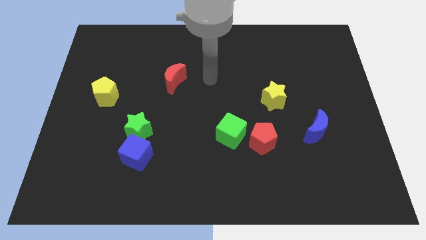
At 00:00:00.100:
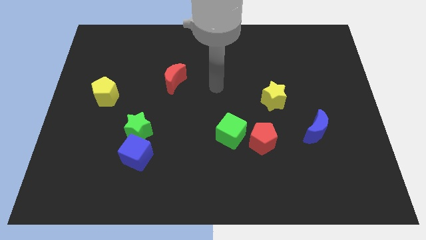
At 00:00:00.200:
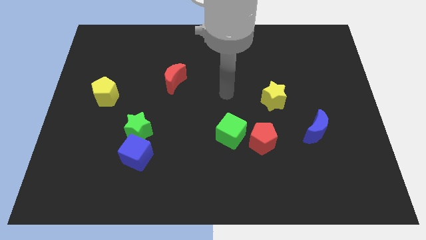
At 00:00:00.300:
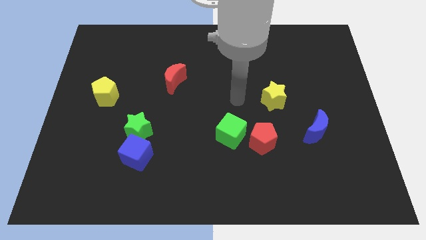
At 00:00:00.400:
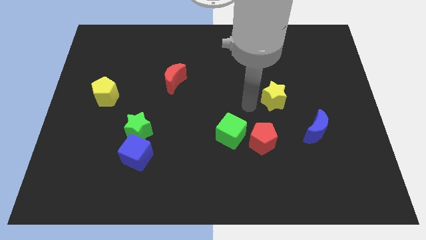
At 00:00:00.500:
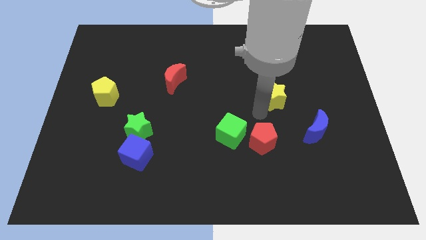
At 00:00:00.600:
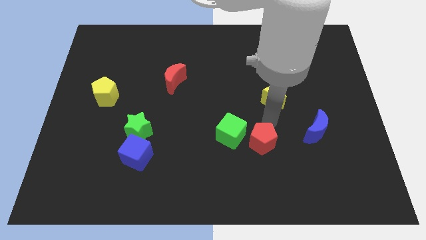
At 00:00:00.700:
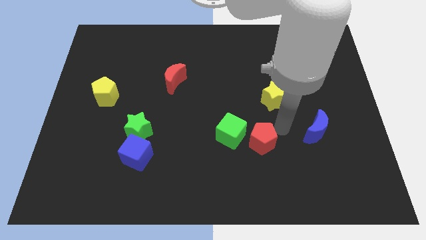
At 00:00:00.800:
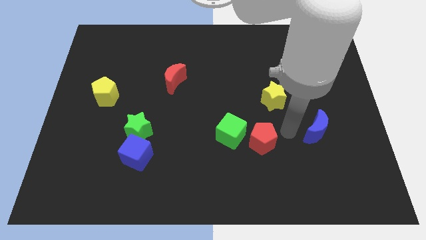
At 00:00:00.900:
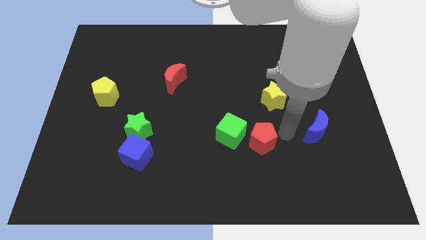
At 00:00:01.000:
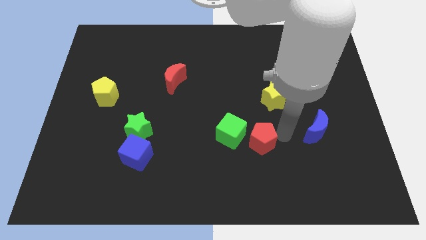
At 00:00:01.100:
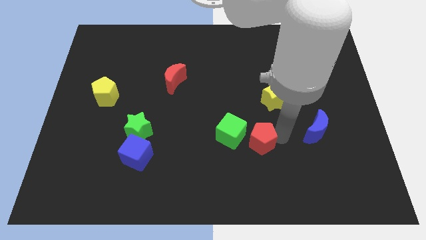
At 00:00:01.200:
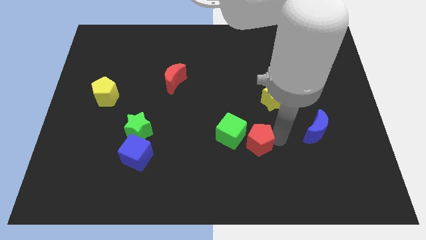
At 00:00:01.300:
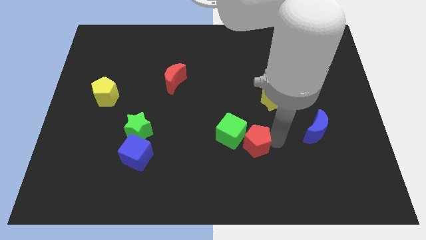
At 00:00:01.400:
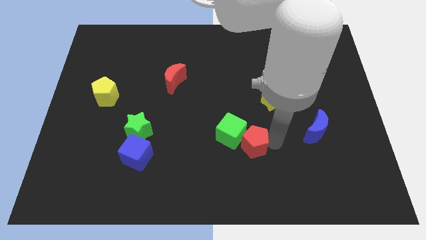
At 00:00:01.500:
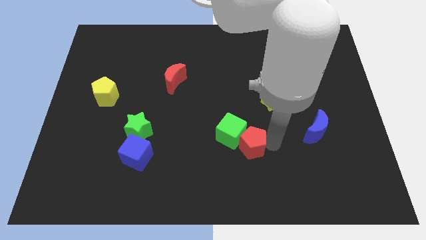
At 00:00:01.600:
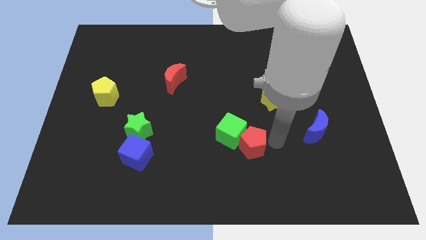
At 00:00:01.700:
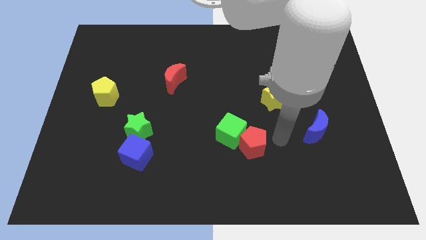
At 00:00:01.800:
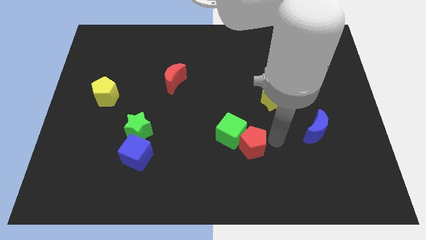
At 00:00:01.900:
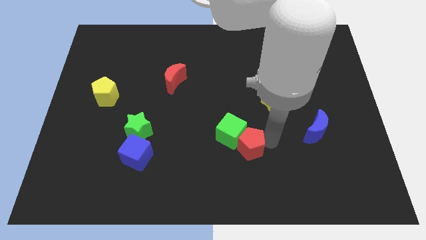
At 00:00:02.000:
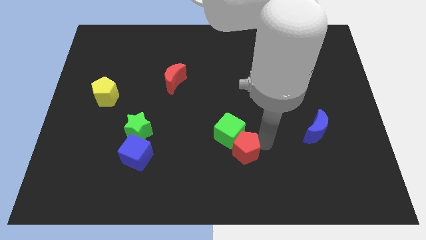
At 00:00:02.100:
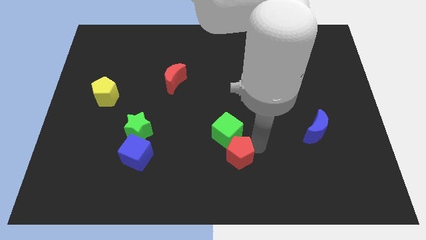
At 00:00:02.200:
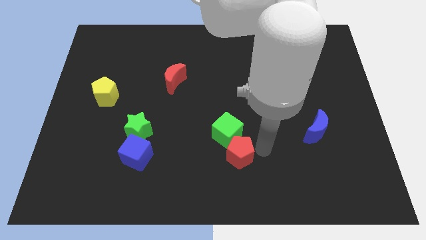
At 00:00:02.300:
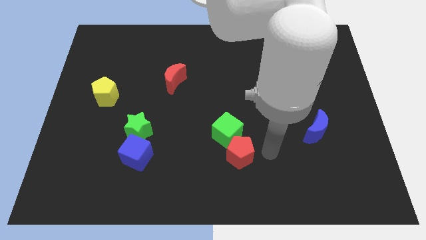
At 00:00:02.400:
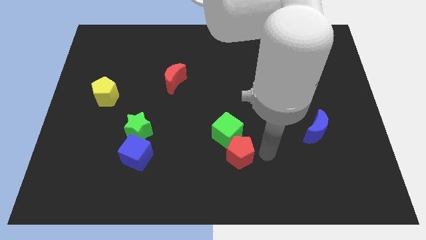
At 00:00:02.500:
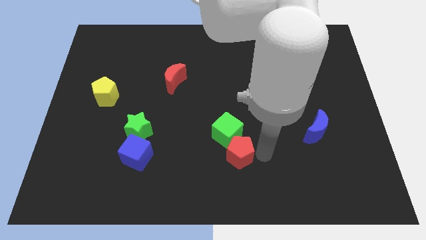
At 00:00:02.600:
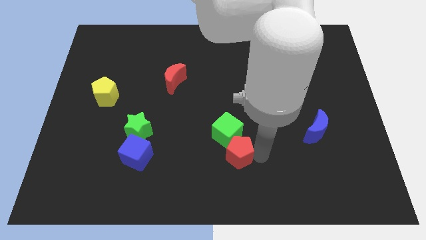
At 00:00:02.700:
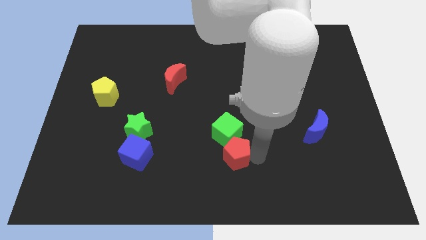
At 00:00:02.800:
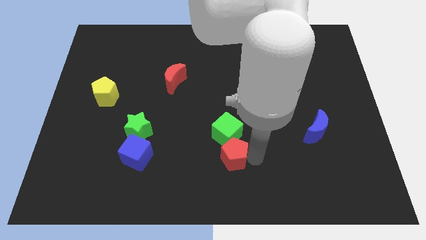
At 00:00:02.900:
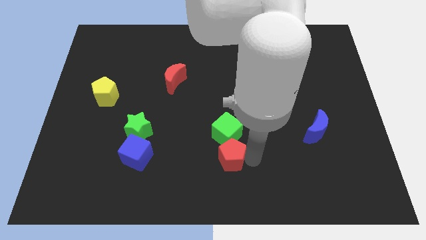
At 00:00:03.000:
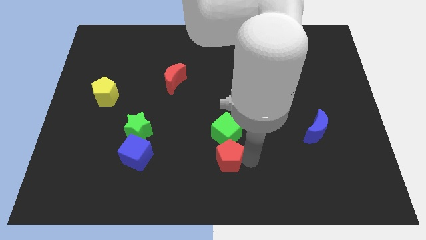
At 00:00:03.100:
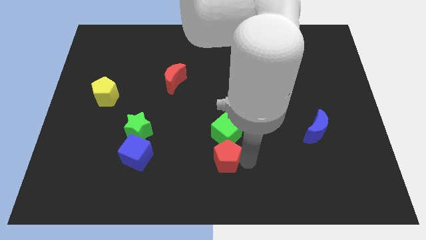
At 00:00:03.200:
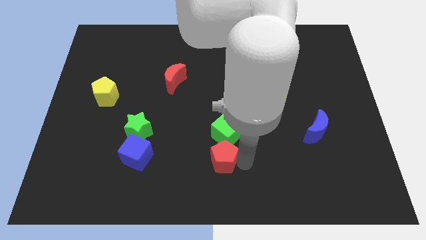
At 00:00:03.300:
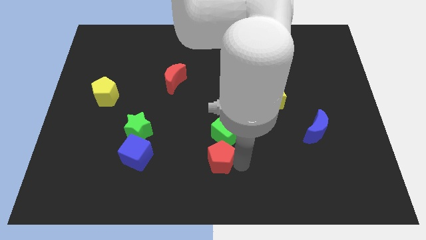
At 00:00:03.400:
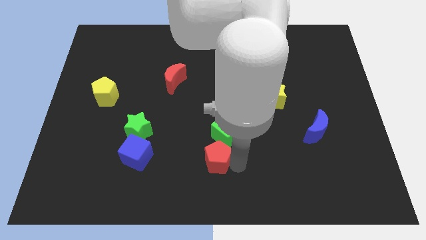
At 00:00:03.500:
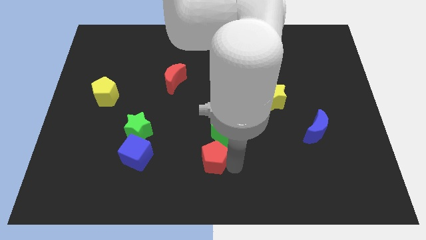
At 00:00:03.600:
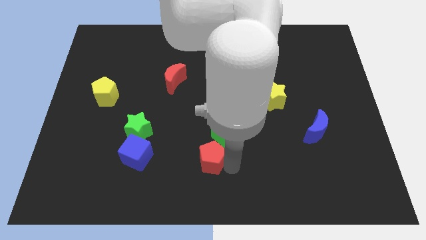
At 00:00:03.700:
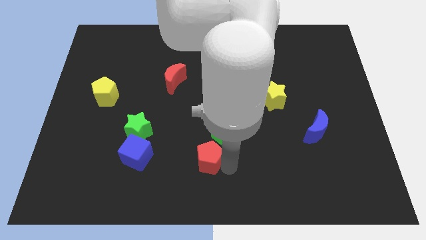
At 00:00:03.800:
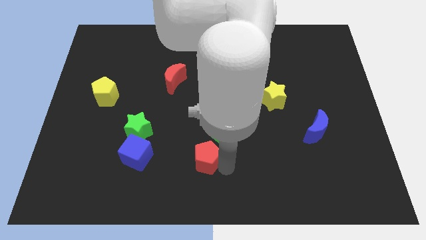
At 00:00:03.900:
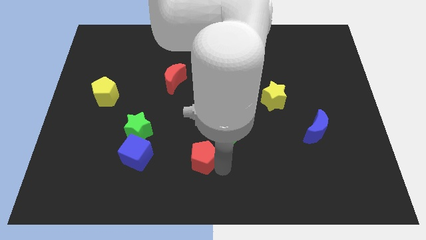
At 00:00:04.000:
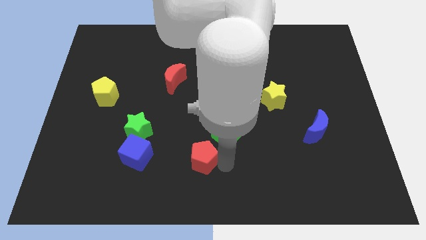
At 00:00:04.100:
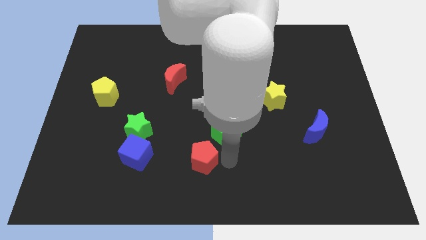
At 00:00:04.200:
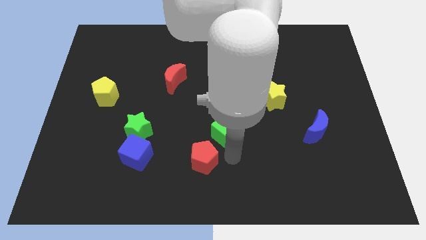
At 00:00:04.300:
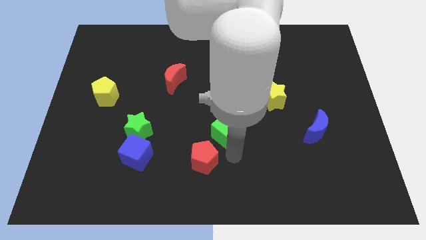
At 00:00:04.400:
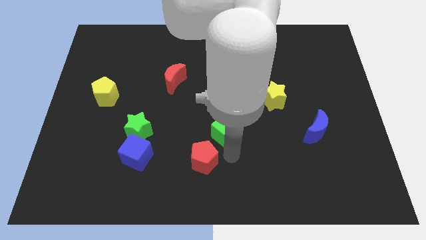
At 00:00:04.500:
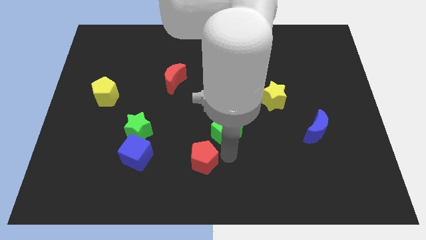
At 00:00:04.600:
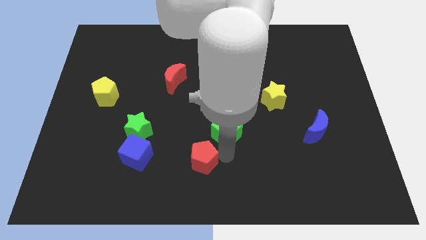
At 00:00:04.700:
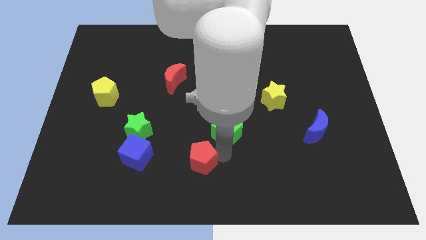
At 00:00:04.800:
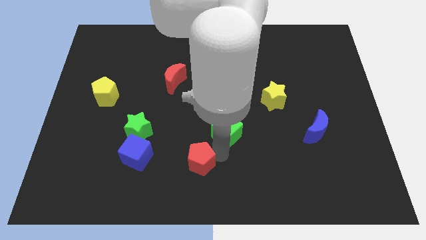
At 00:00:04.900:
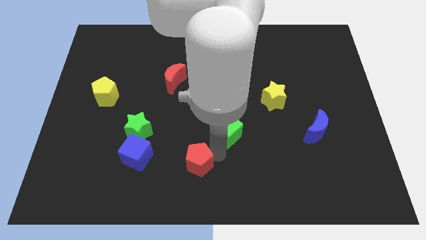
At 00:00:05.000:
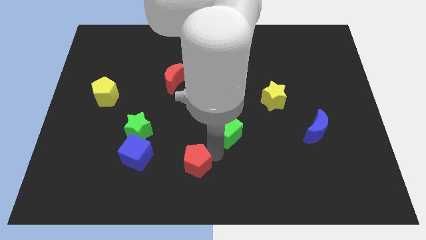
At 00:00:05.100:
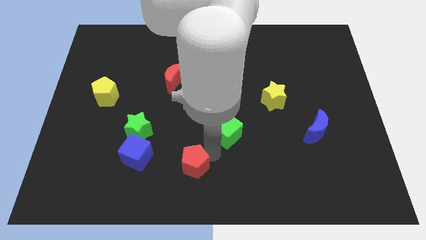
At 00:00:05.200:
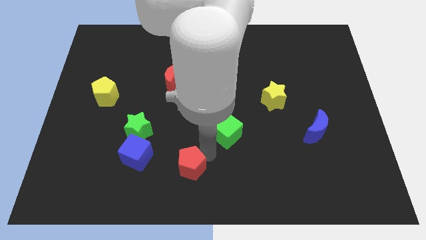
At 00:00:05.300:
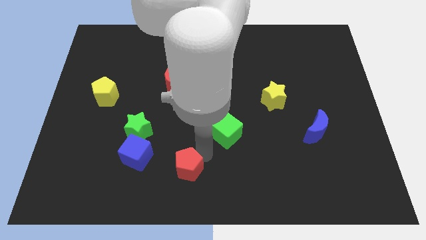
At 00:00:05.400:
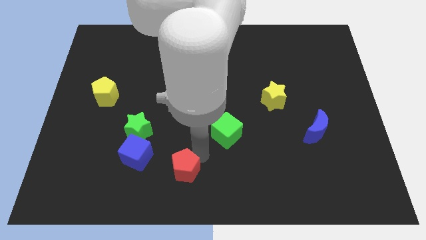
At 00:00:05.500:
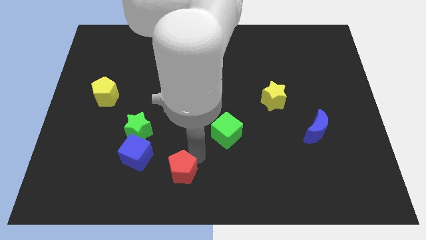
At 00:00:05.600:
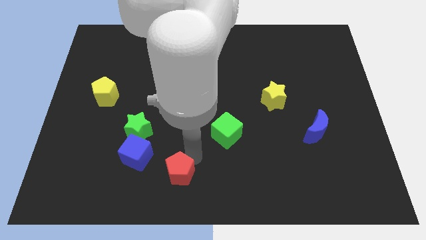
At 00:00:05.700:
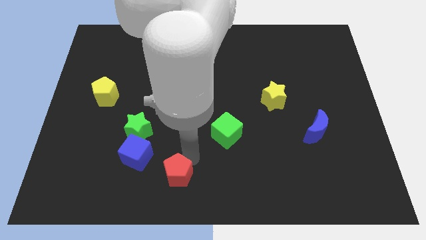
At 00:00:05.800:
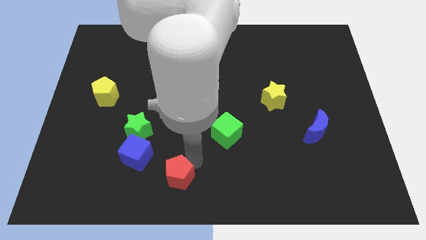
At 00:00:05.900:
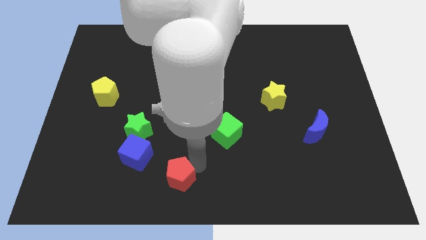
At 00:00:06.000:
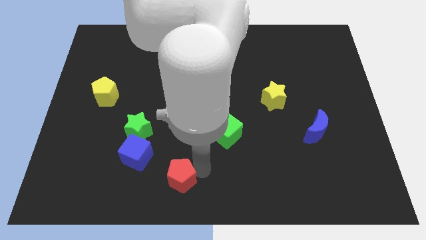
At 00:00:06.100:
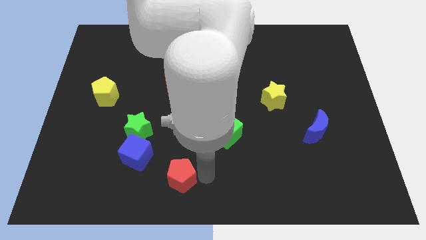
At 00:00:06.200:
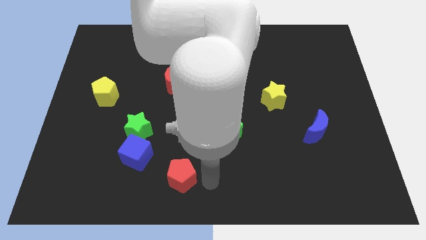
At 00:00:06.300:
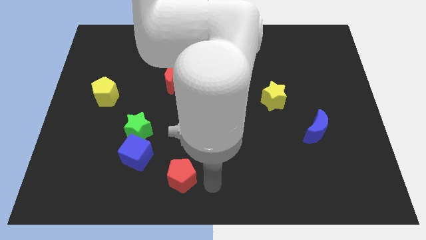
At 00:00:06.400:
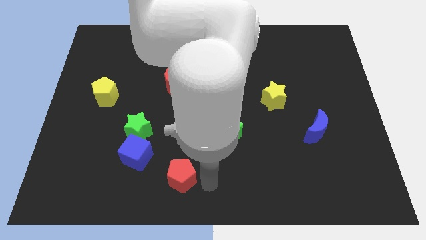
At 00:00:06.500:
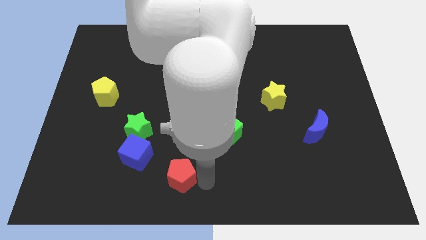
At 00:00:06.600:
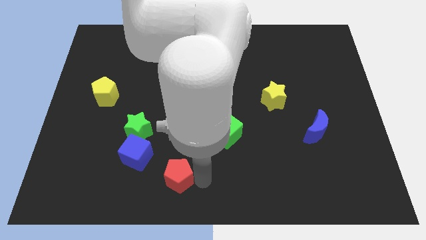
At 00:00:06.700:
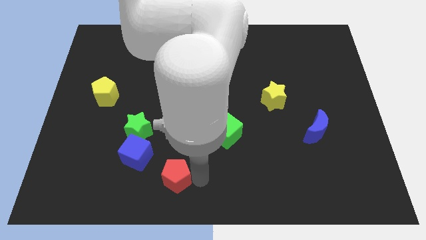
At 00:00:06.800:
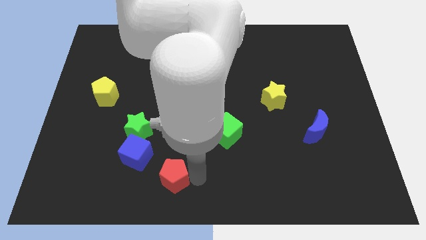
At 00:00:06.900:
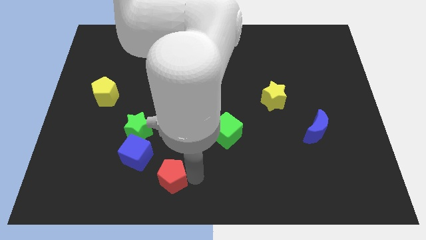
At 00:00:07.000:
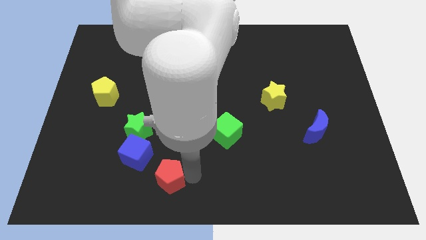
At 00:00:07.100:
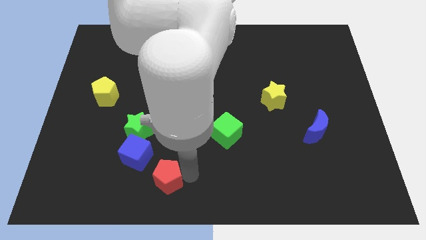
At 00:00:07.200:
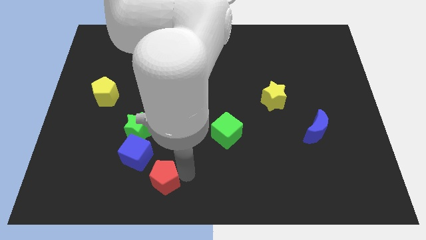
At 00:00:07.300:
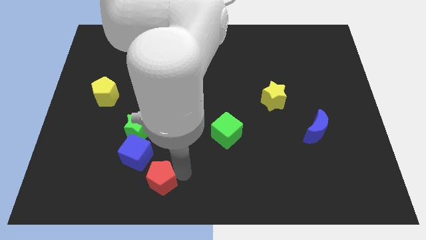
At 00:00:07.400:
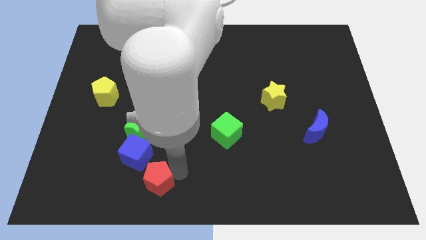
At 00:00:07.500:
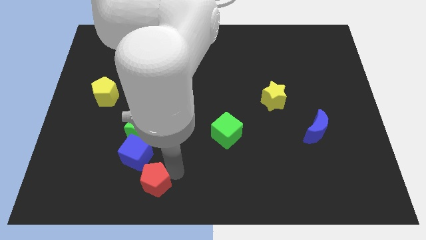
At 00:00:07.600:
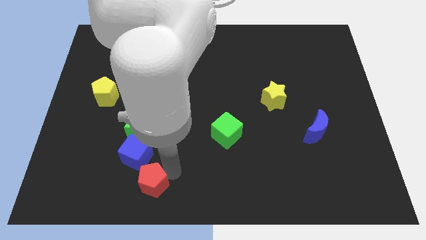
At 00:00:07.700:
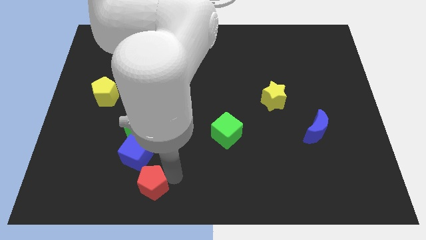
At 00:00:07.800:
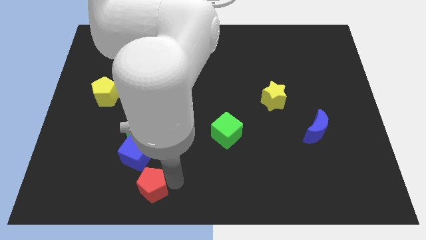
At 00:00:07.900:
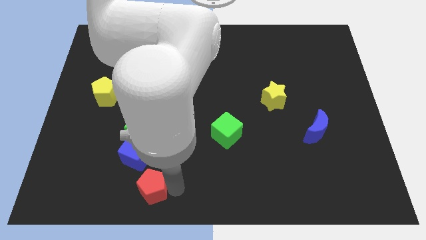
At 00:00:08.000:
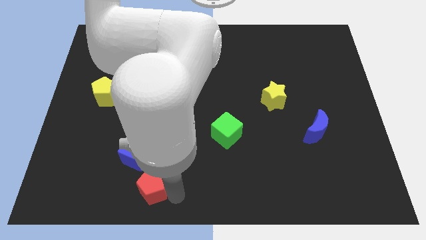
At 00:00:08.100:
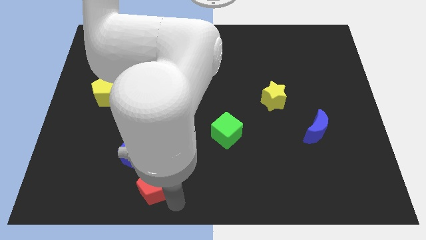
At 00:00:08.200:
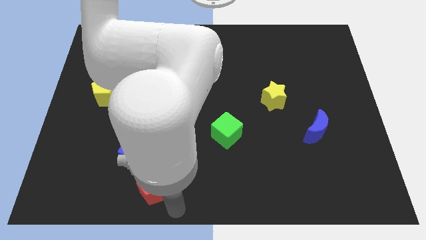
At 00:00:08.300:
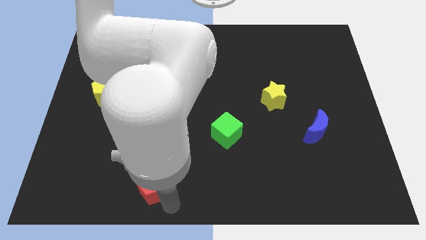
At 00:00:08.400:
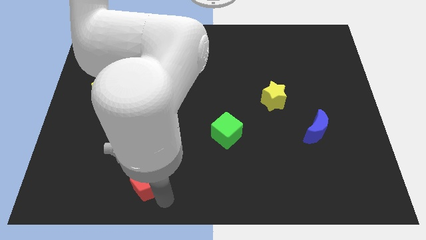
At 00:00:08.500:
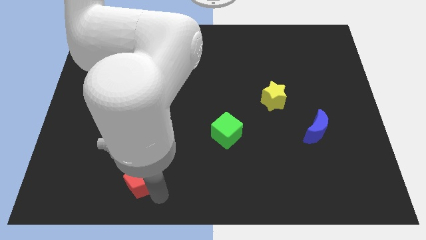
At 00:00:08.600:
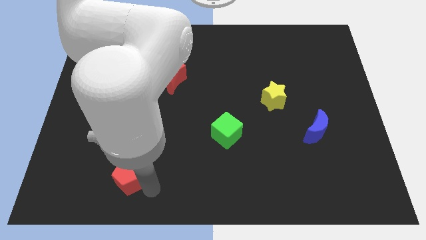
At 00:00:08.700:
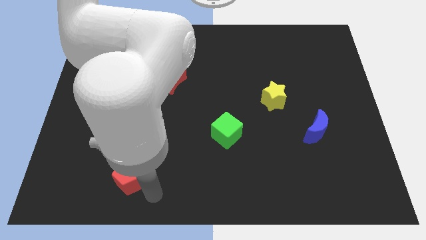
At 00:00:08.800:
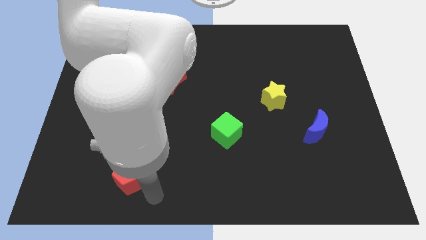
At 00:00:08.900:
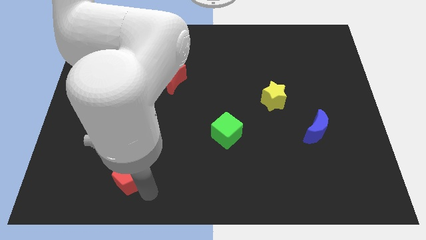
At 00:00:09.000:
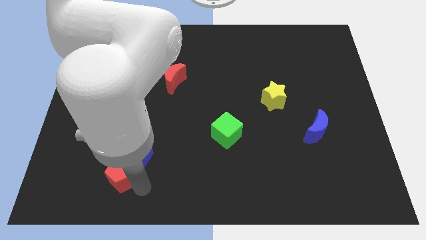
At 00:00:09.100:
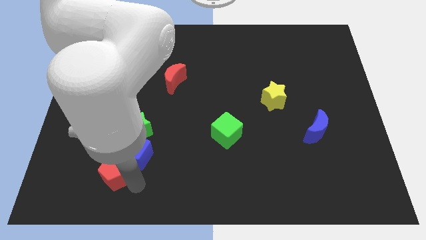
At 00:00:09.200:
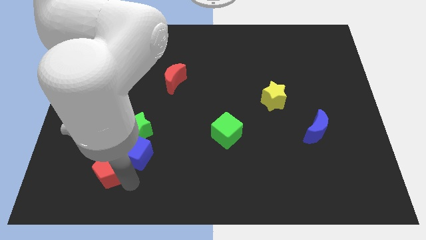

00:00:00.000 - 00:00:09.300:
put the red pentagon just left of the blue cube
